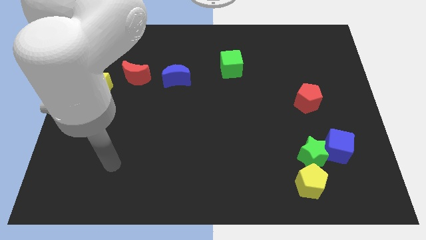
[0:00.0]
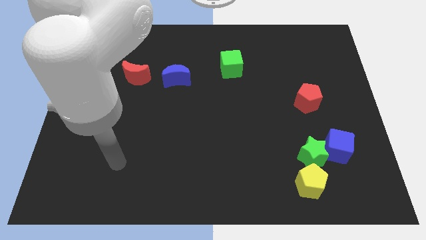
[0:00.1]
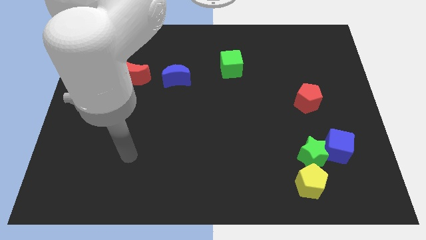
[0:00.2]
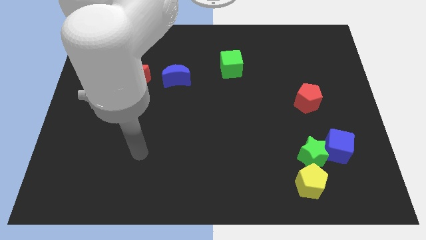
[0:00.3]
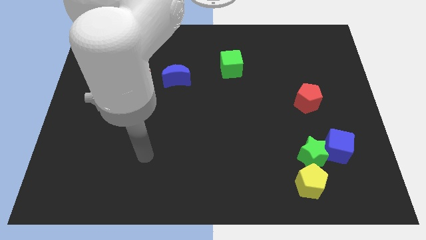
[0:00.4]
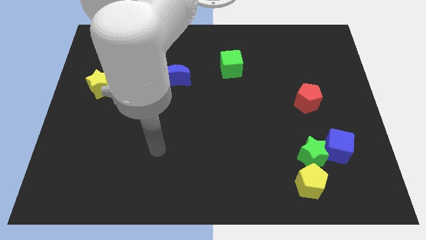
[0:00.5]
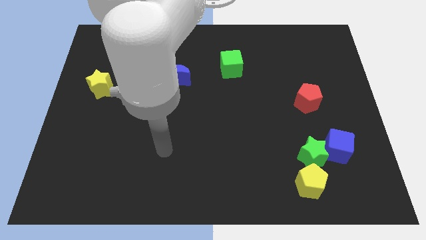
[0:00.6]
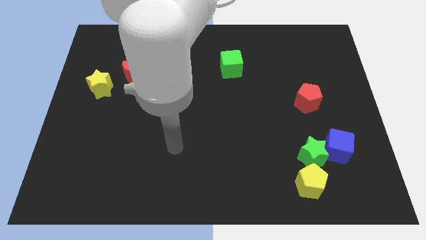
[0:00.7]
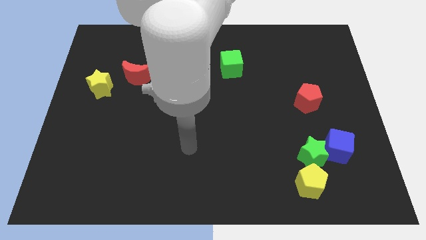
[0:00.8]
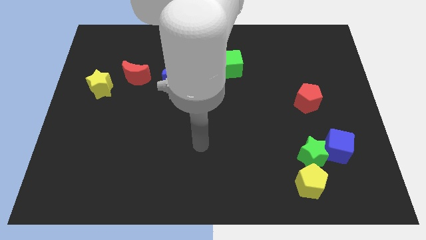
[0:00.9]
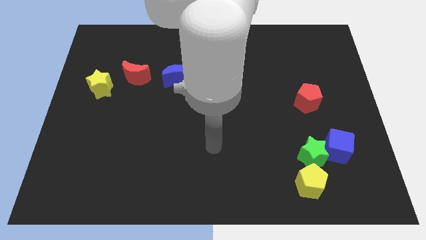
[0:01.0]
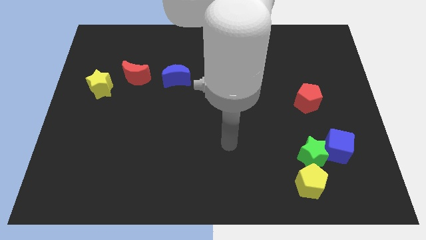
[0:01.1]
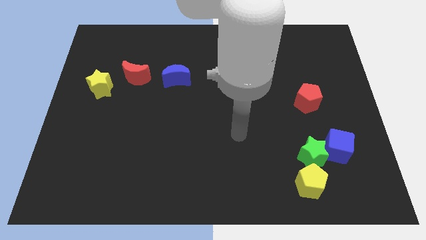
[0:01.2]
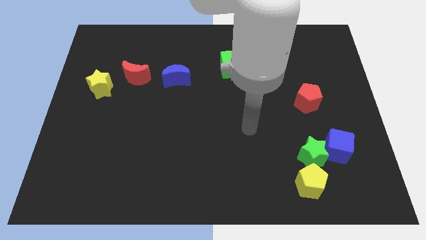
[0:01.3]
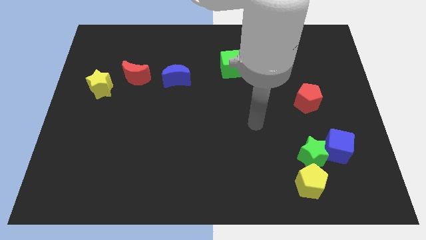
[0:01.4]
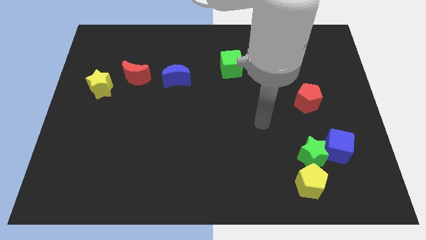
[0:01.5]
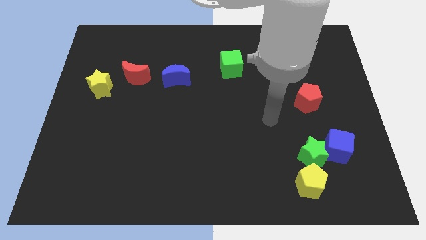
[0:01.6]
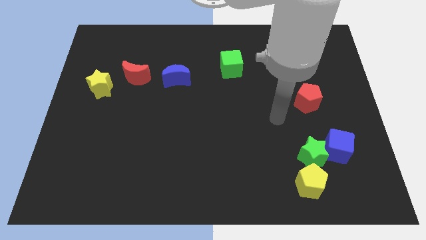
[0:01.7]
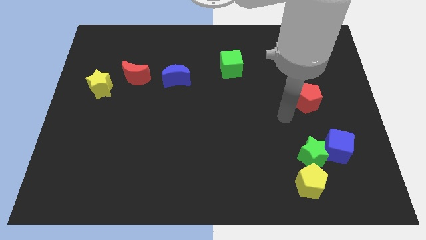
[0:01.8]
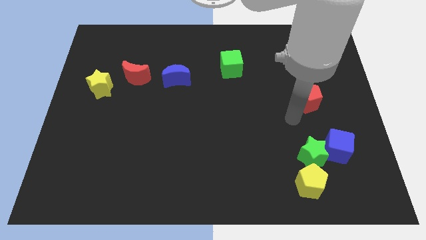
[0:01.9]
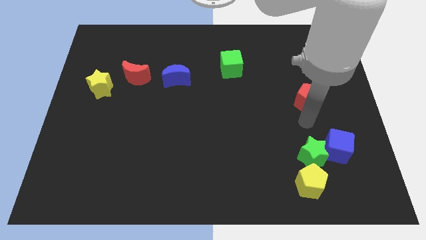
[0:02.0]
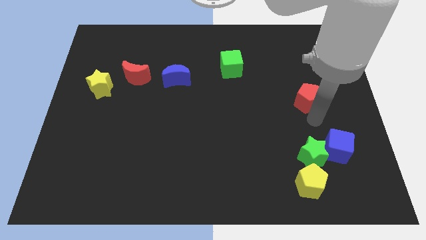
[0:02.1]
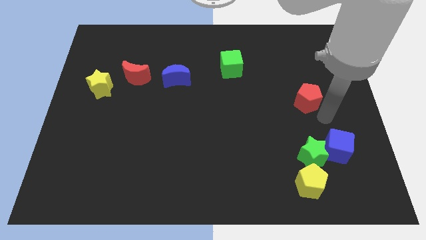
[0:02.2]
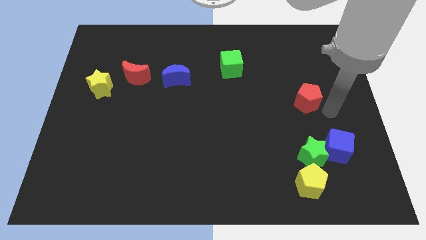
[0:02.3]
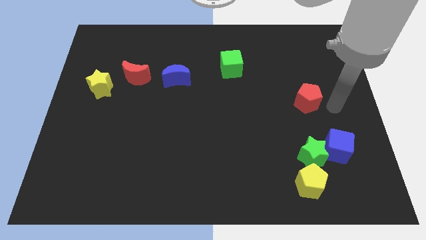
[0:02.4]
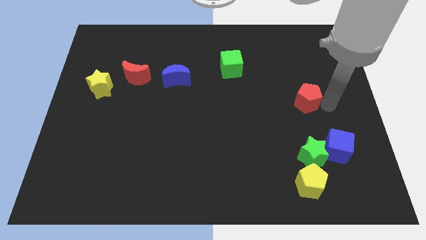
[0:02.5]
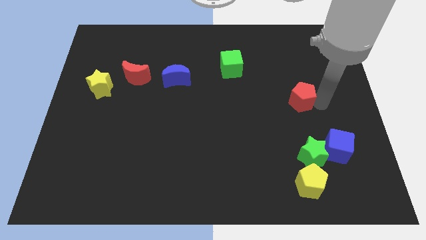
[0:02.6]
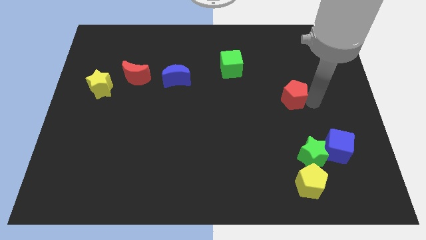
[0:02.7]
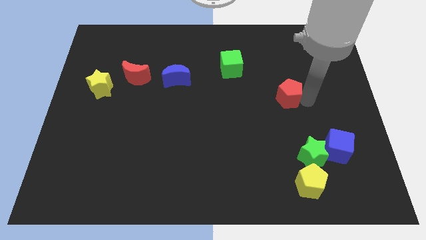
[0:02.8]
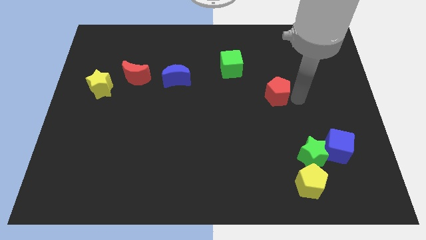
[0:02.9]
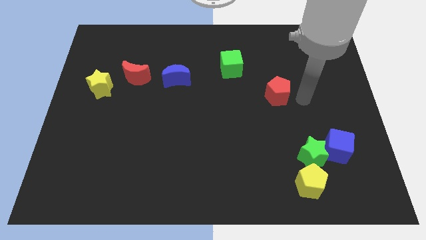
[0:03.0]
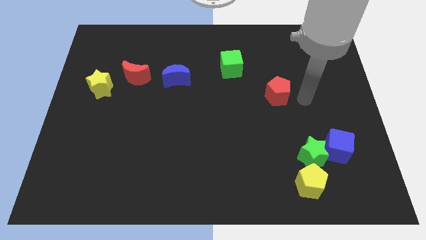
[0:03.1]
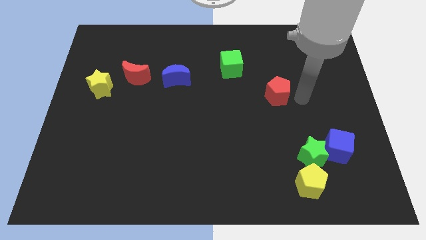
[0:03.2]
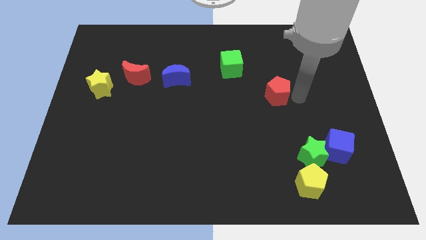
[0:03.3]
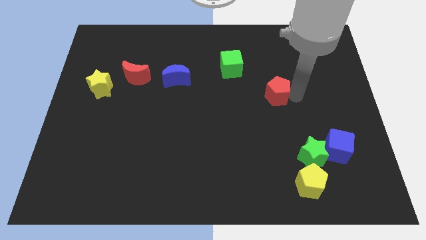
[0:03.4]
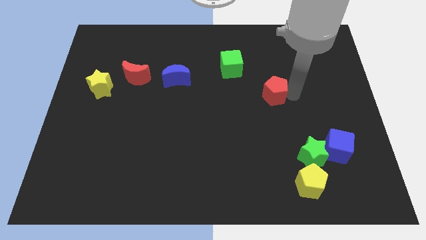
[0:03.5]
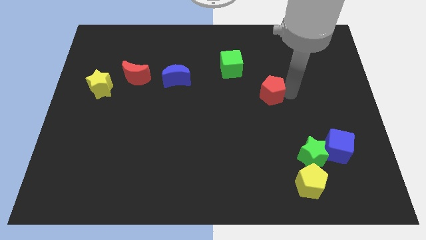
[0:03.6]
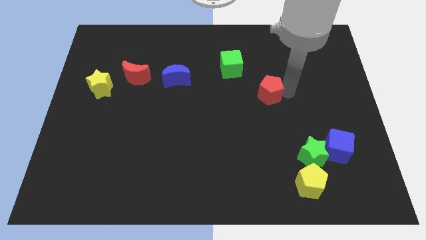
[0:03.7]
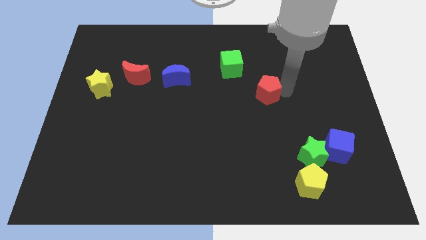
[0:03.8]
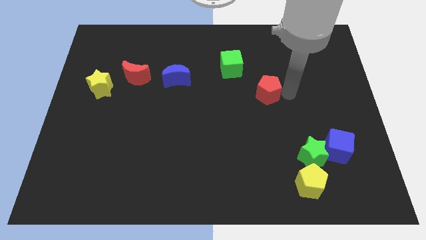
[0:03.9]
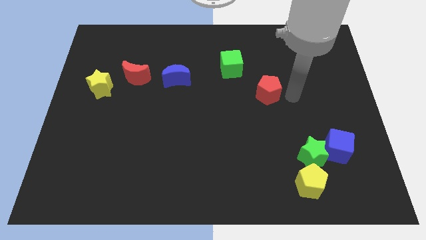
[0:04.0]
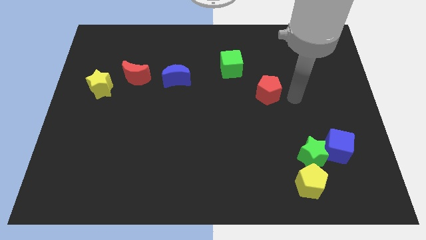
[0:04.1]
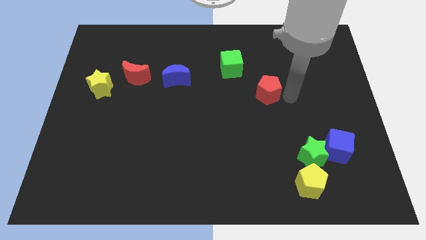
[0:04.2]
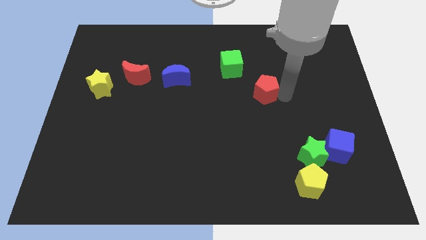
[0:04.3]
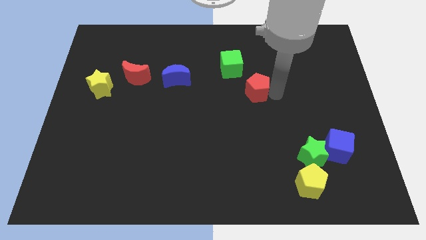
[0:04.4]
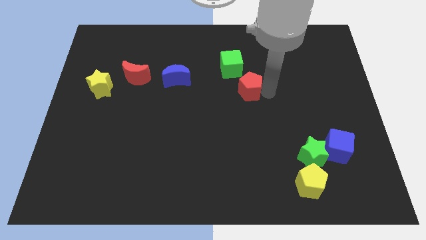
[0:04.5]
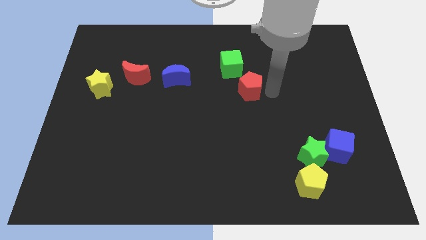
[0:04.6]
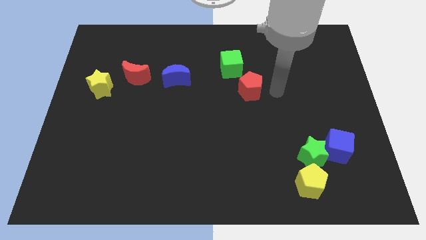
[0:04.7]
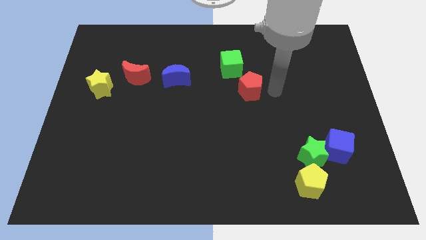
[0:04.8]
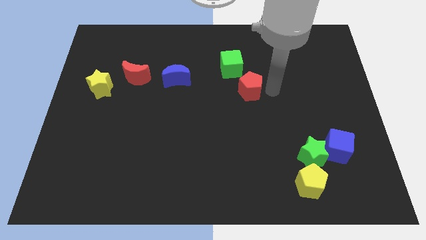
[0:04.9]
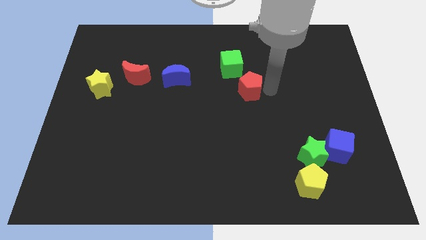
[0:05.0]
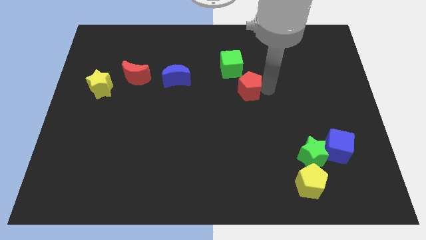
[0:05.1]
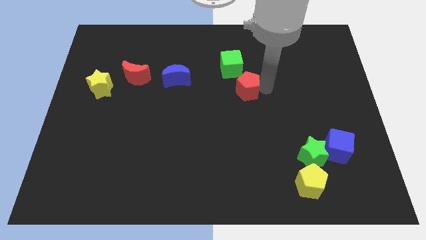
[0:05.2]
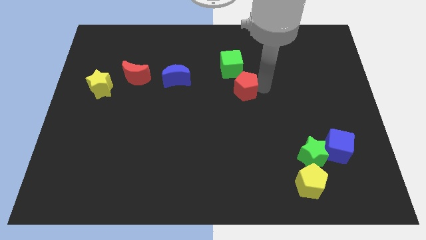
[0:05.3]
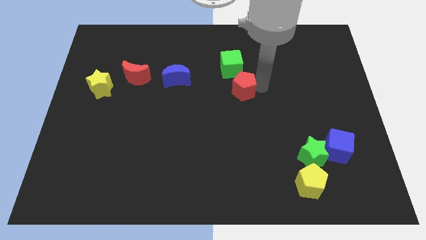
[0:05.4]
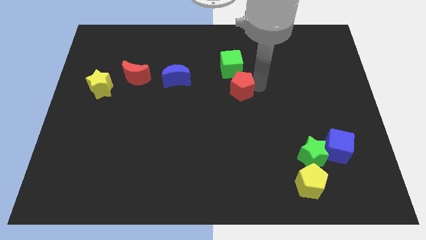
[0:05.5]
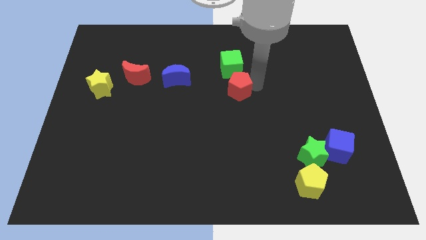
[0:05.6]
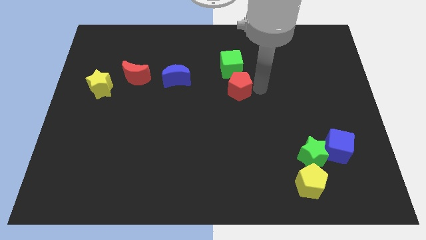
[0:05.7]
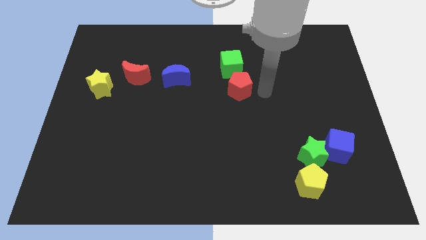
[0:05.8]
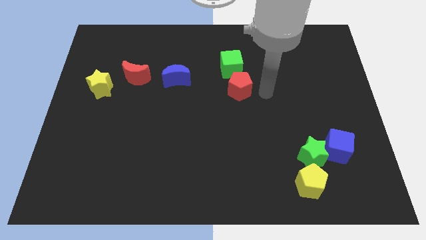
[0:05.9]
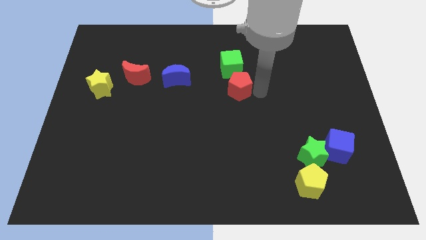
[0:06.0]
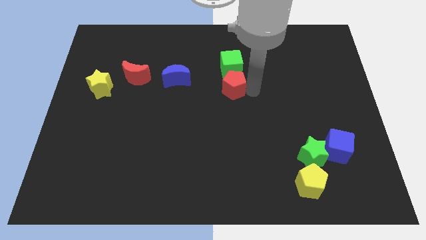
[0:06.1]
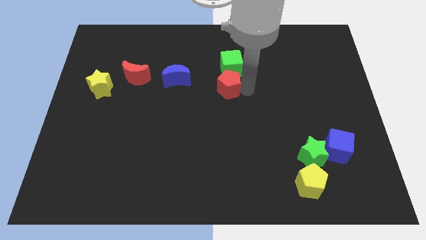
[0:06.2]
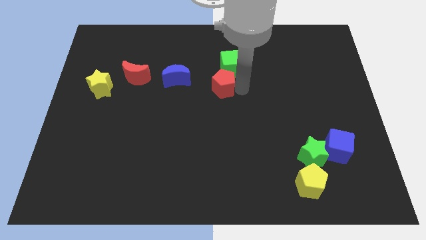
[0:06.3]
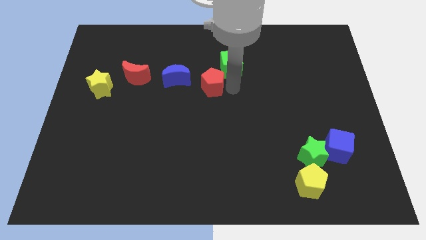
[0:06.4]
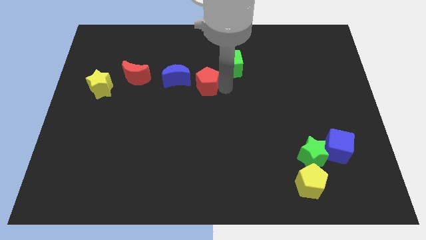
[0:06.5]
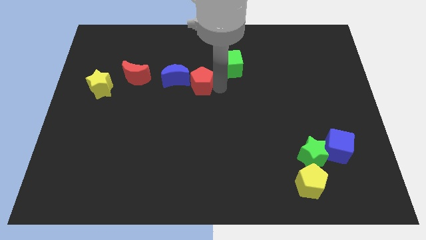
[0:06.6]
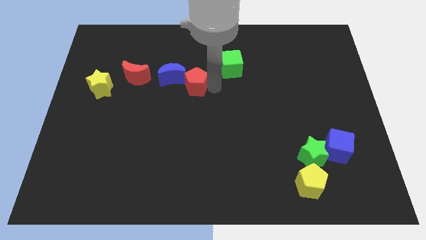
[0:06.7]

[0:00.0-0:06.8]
move the red pentagon to the right side of the red moon

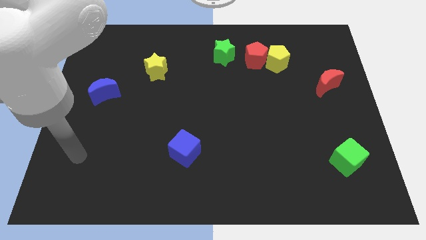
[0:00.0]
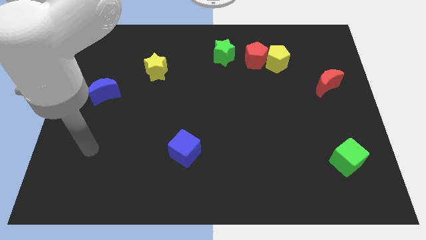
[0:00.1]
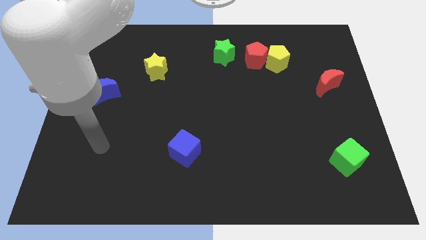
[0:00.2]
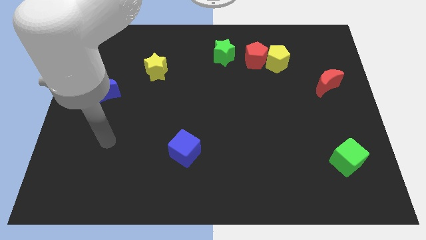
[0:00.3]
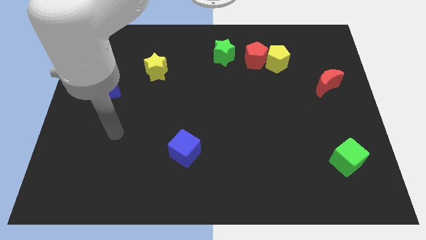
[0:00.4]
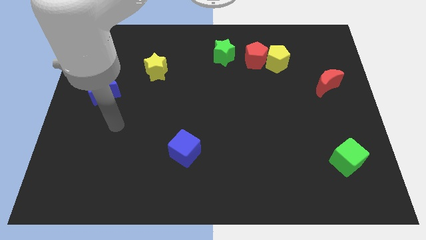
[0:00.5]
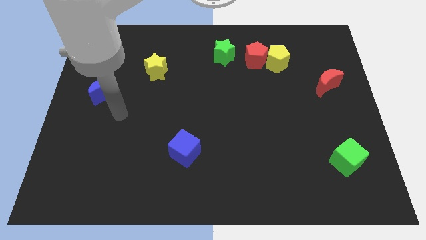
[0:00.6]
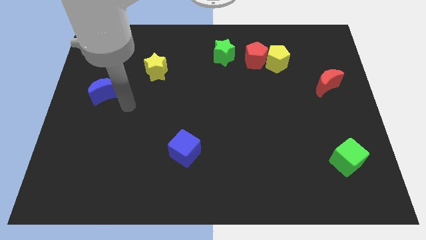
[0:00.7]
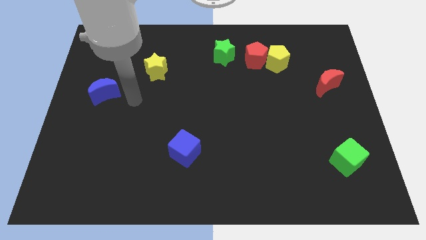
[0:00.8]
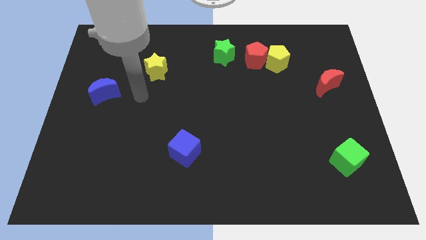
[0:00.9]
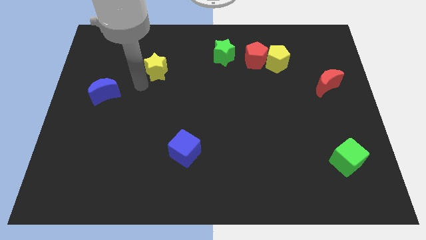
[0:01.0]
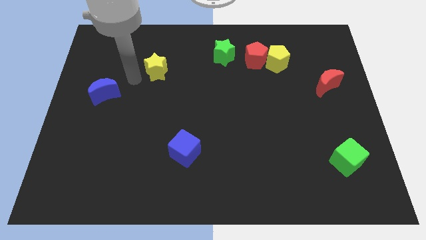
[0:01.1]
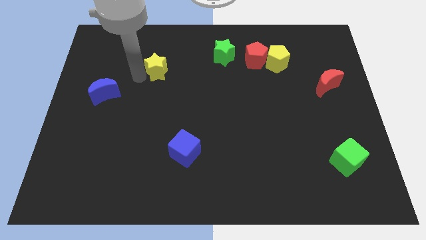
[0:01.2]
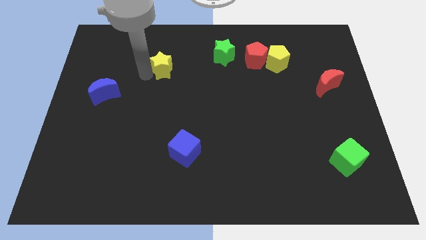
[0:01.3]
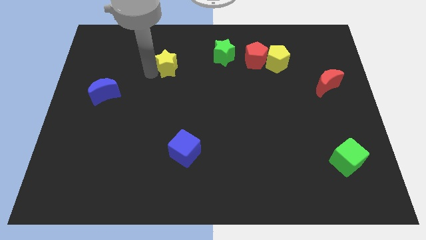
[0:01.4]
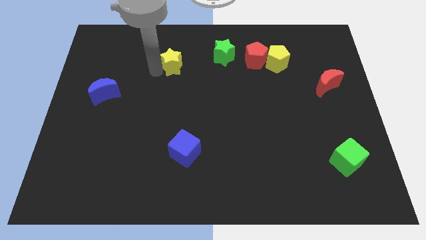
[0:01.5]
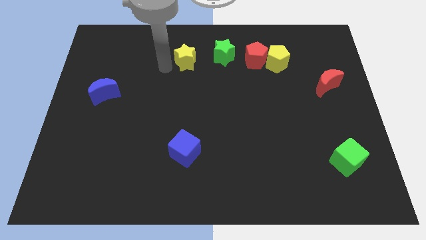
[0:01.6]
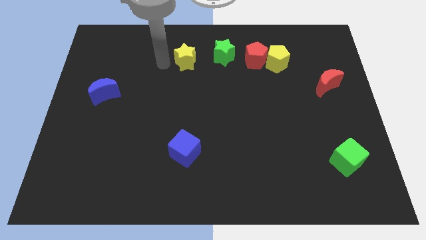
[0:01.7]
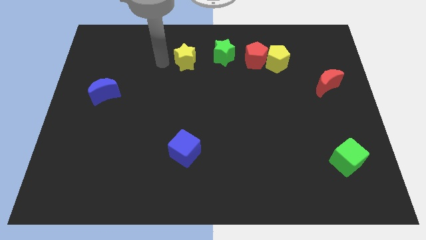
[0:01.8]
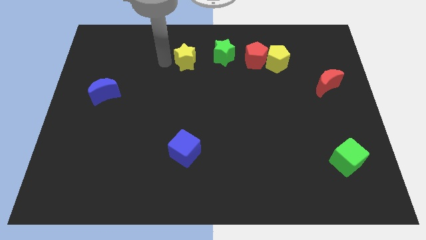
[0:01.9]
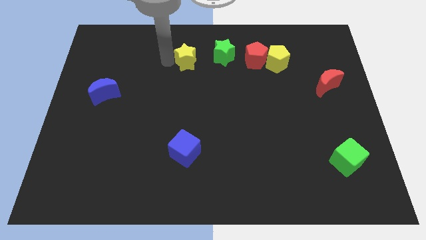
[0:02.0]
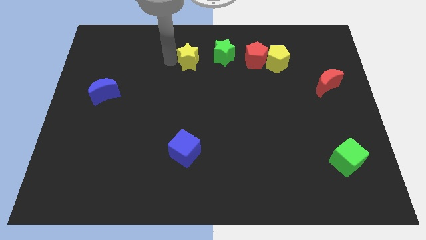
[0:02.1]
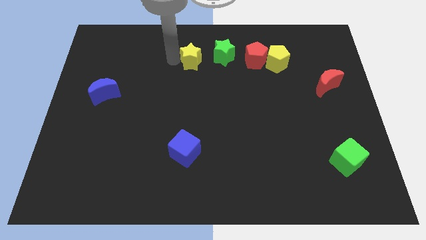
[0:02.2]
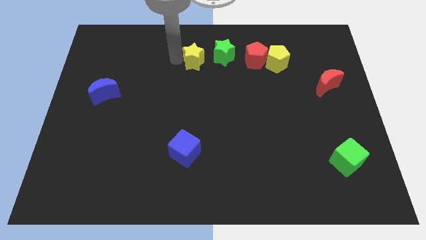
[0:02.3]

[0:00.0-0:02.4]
move the yellow star left of the red pentagon
